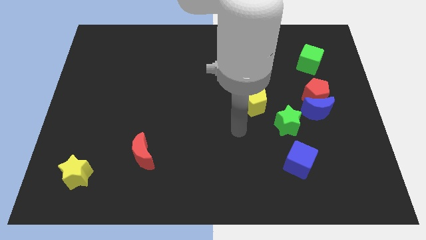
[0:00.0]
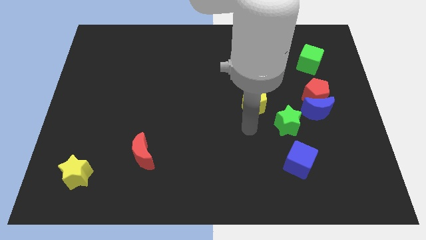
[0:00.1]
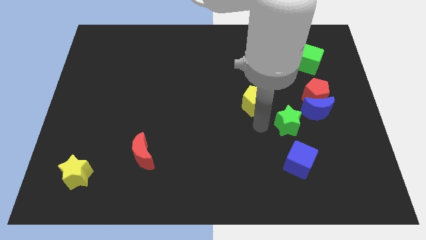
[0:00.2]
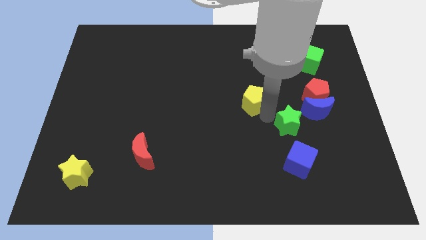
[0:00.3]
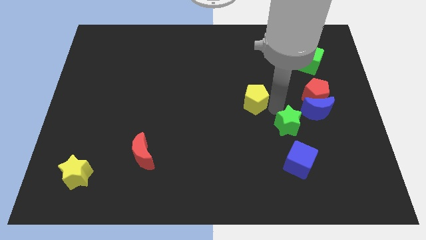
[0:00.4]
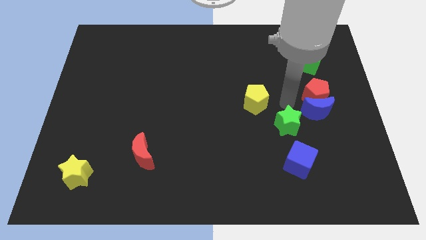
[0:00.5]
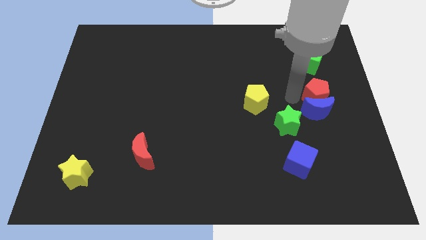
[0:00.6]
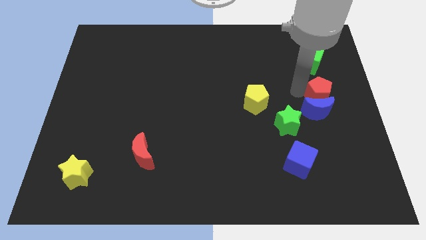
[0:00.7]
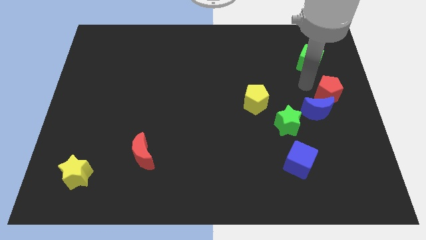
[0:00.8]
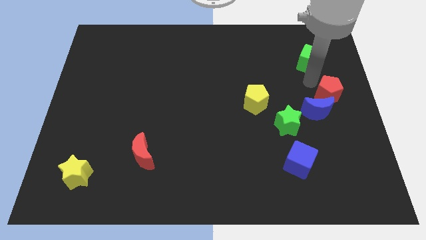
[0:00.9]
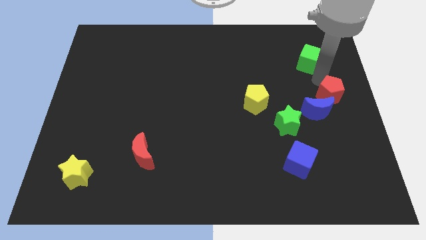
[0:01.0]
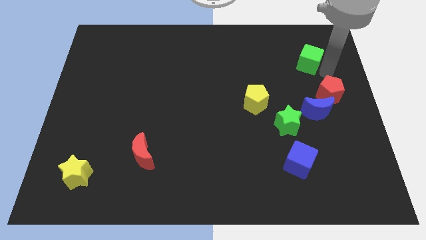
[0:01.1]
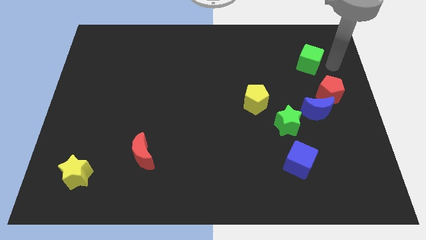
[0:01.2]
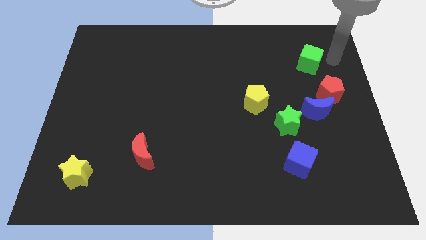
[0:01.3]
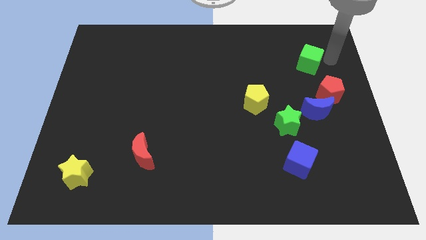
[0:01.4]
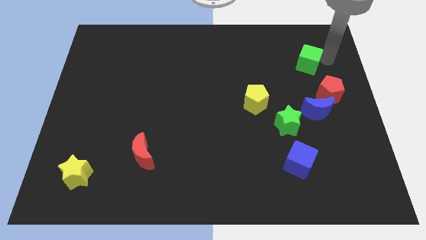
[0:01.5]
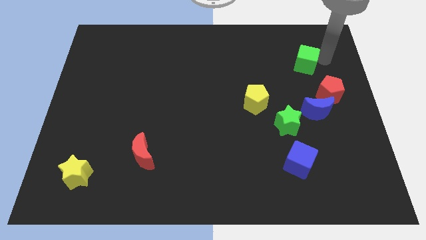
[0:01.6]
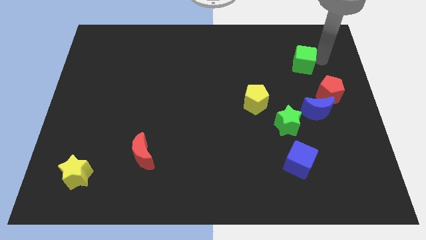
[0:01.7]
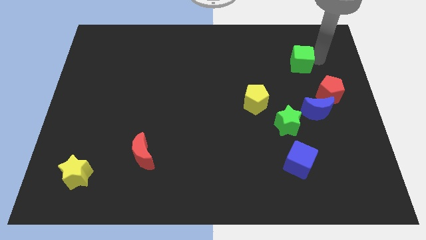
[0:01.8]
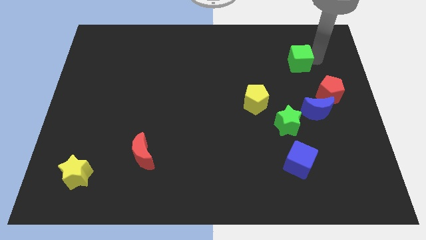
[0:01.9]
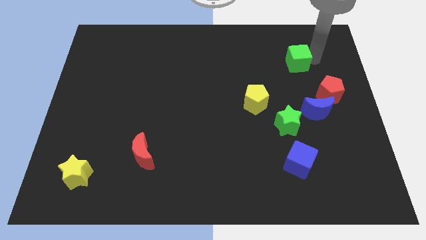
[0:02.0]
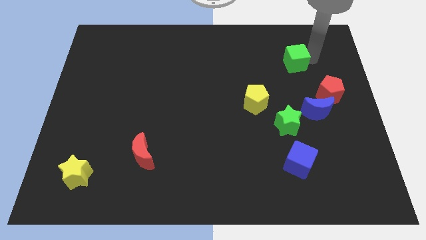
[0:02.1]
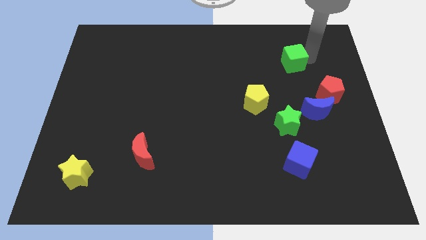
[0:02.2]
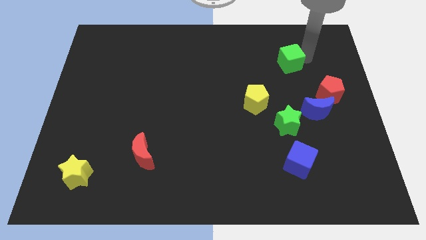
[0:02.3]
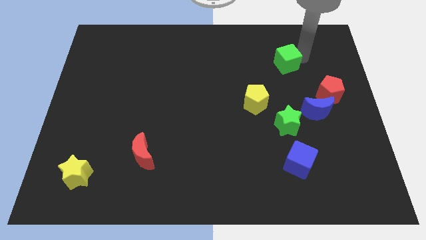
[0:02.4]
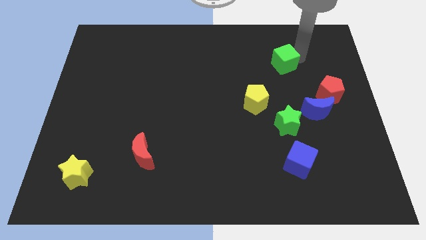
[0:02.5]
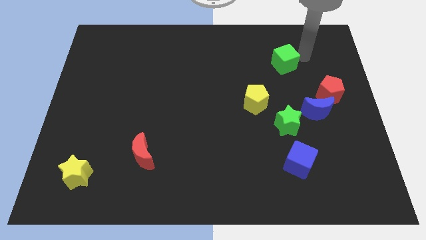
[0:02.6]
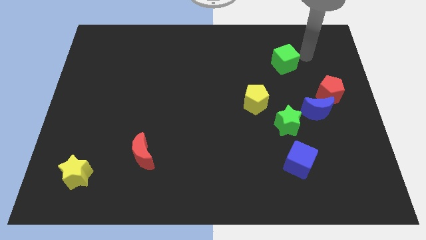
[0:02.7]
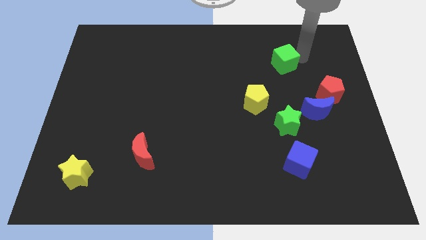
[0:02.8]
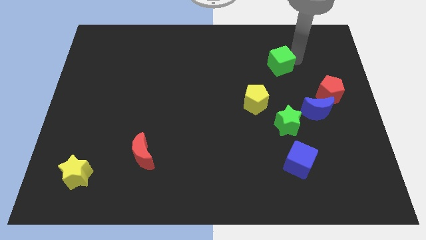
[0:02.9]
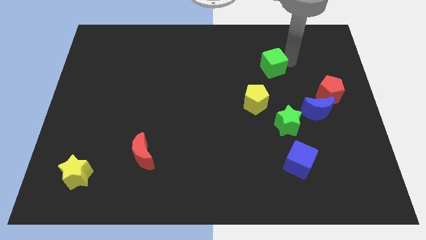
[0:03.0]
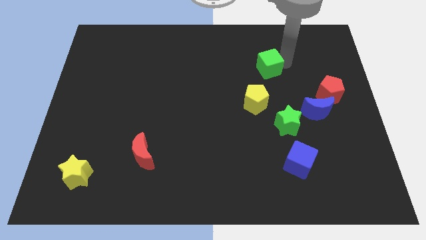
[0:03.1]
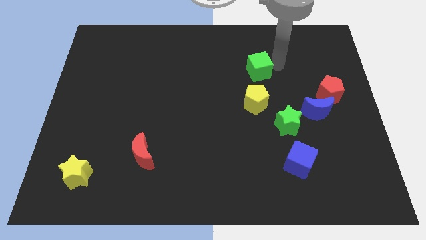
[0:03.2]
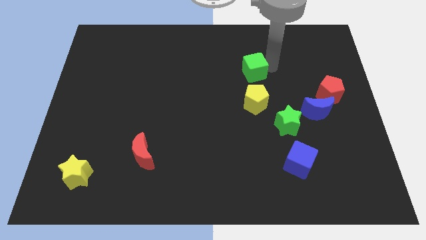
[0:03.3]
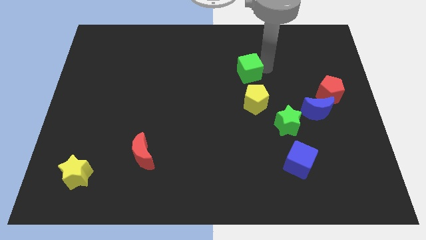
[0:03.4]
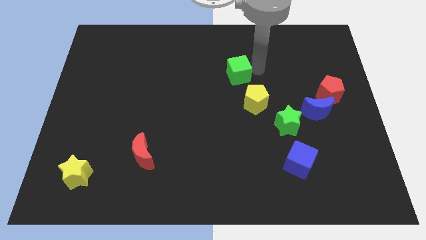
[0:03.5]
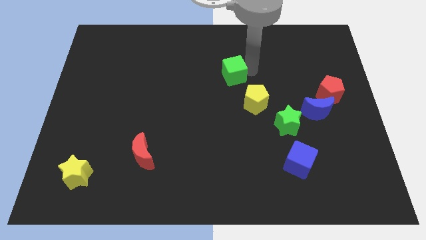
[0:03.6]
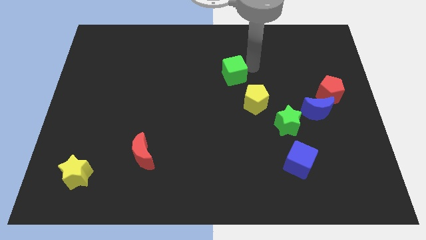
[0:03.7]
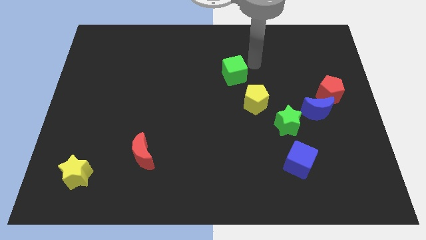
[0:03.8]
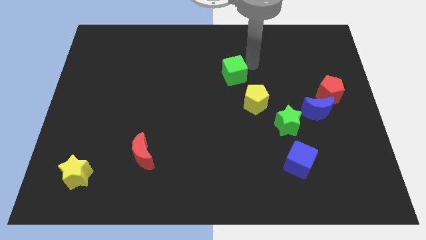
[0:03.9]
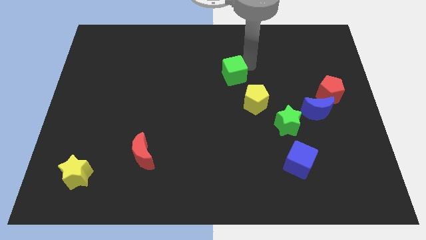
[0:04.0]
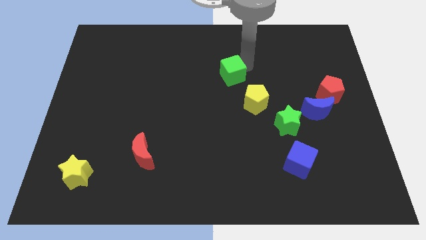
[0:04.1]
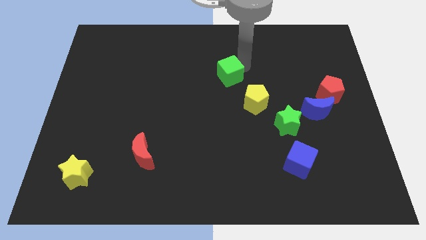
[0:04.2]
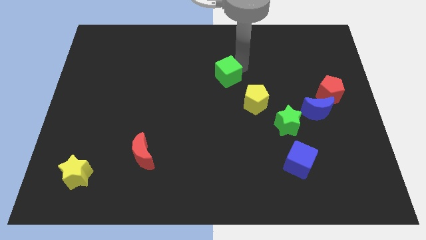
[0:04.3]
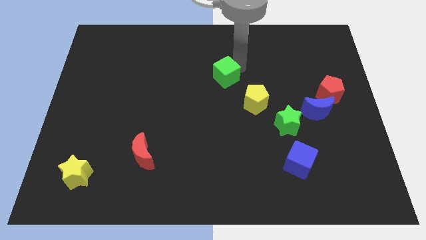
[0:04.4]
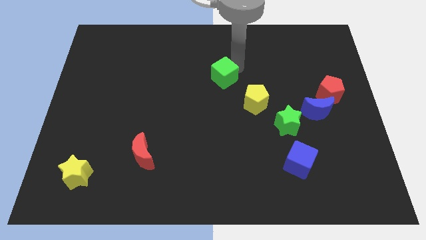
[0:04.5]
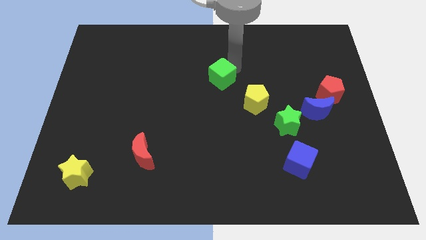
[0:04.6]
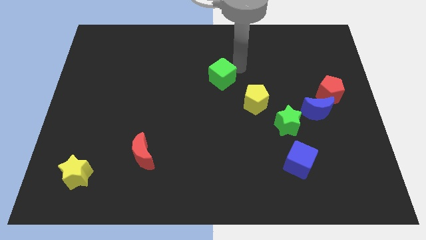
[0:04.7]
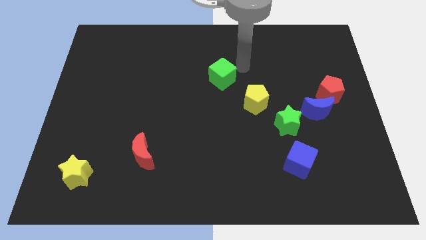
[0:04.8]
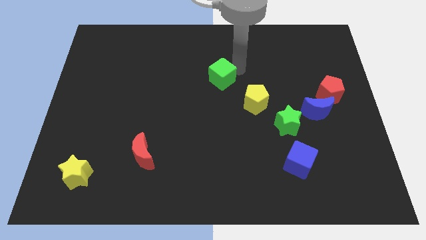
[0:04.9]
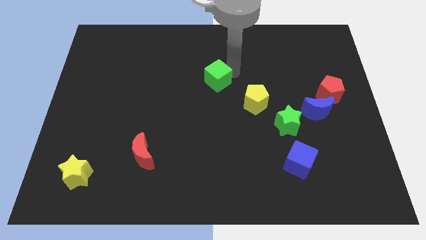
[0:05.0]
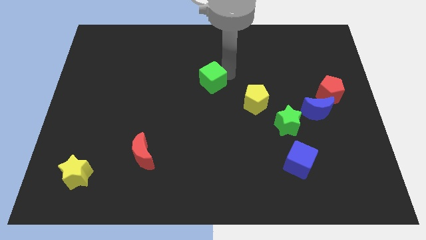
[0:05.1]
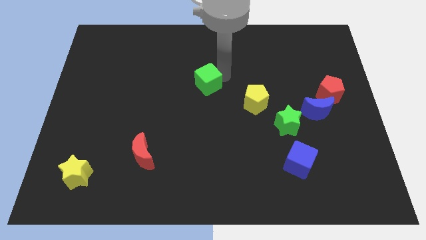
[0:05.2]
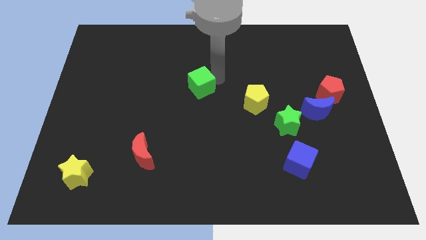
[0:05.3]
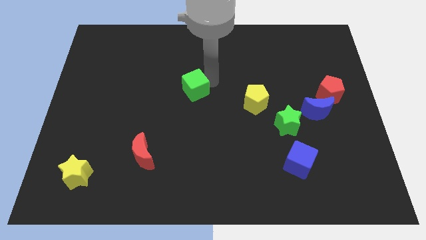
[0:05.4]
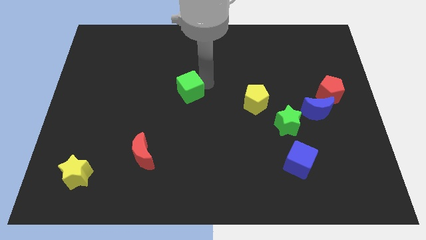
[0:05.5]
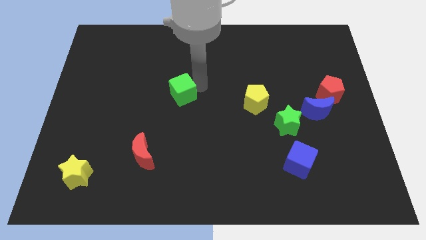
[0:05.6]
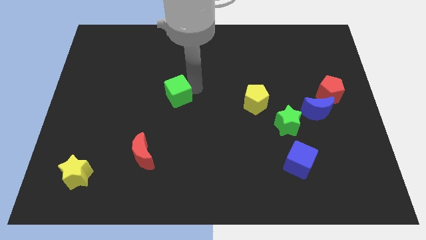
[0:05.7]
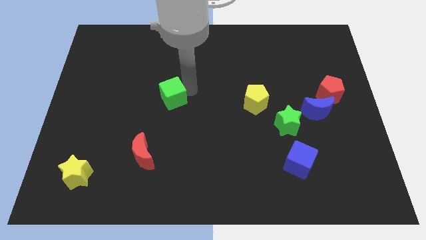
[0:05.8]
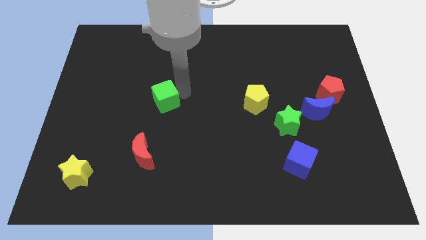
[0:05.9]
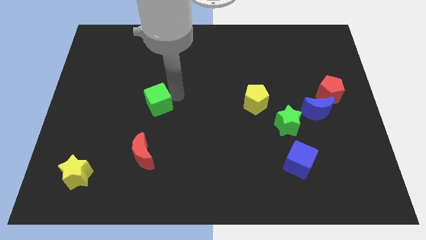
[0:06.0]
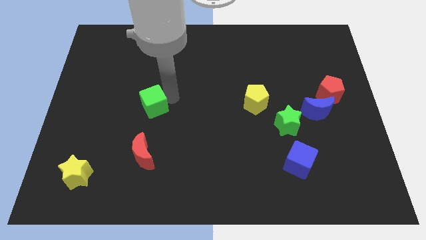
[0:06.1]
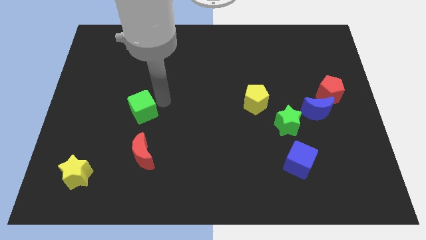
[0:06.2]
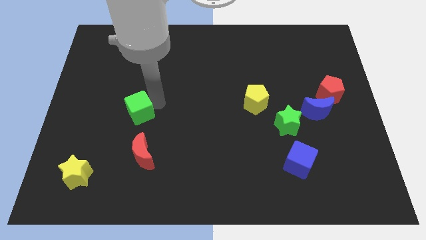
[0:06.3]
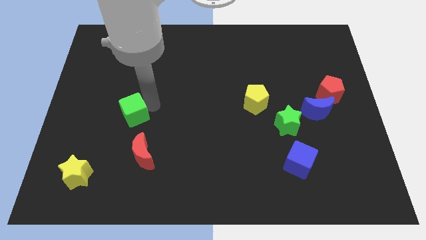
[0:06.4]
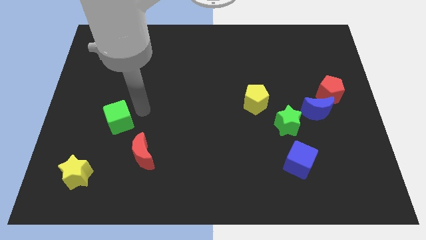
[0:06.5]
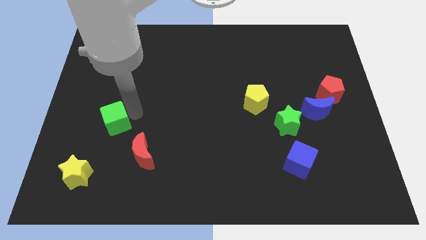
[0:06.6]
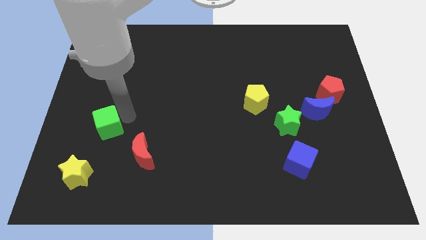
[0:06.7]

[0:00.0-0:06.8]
move the green cube to the top side of the yellow star

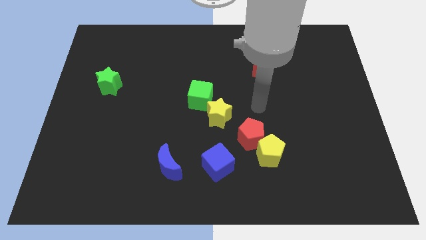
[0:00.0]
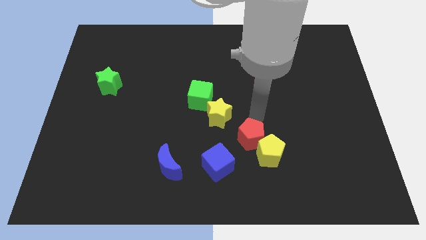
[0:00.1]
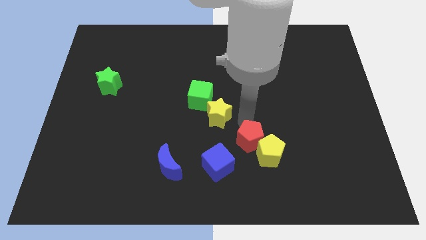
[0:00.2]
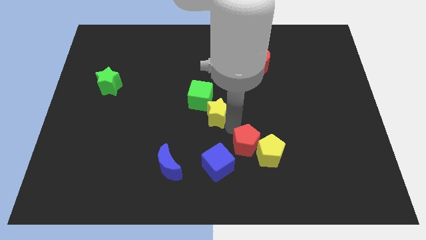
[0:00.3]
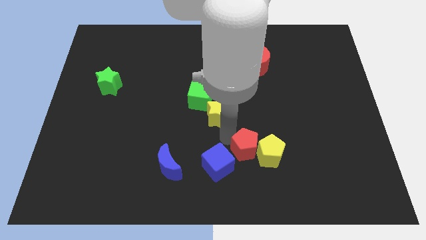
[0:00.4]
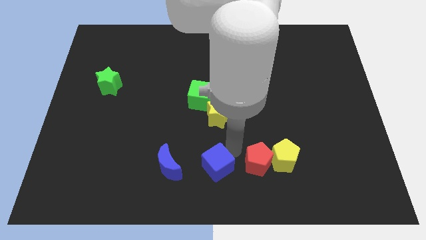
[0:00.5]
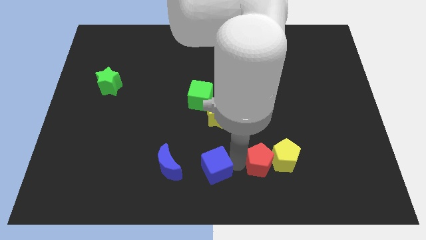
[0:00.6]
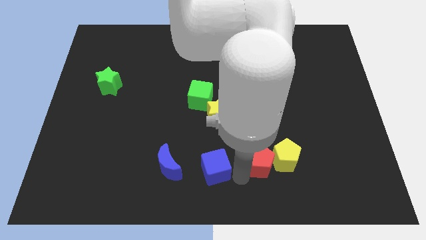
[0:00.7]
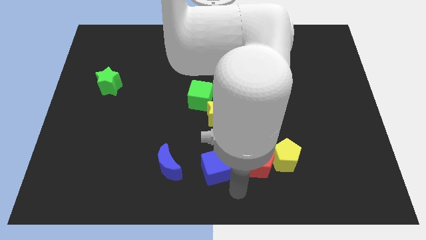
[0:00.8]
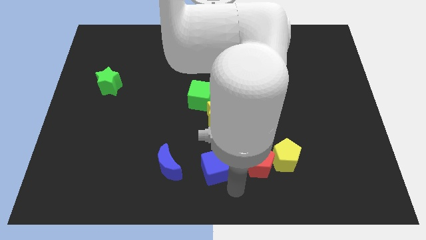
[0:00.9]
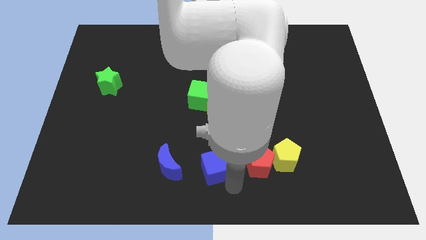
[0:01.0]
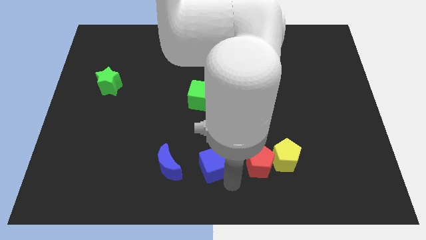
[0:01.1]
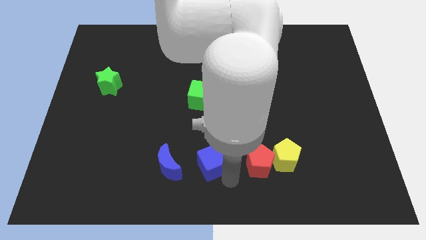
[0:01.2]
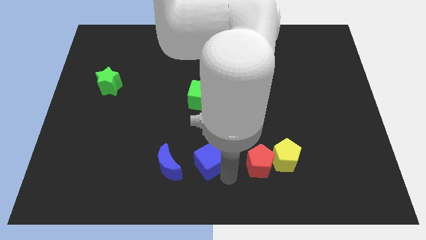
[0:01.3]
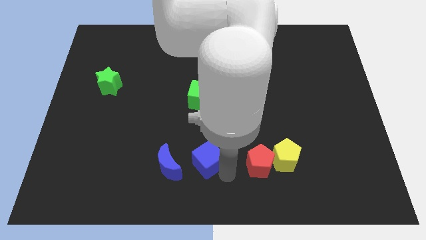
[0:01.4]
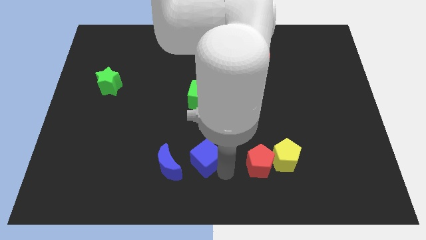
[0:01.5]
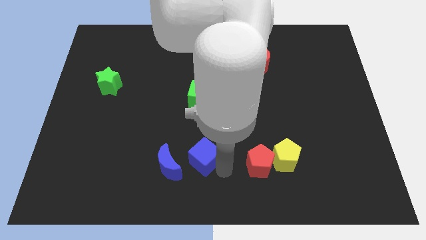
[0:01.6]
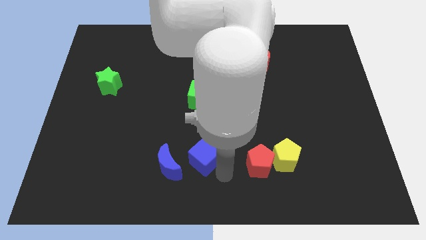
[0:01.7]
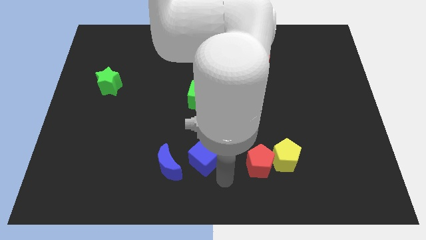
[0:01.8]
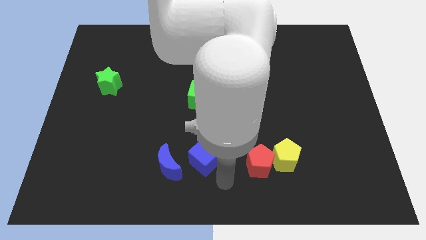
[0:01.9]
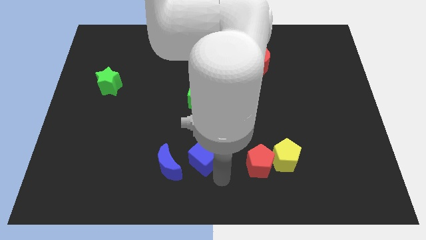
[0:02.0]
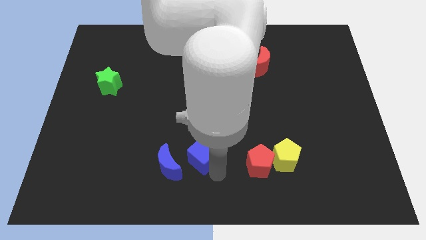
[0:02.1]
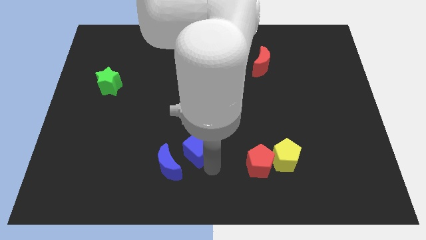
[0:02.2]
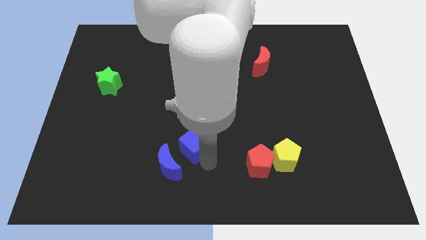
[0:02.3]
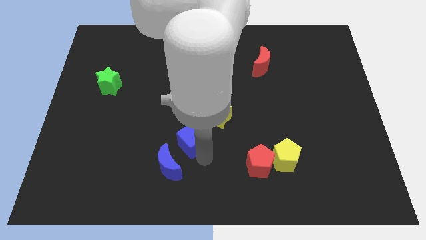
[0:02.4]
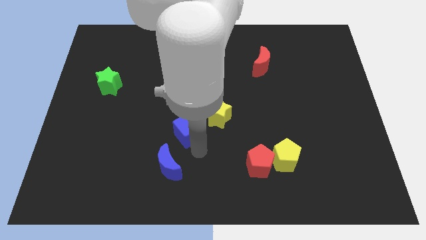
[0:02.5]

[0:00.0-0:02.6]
move the blue cube just left of the yellow star
